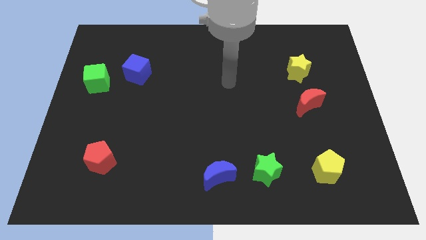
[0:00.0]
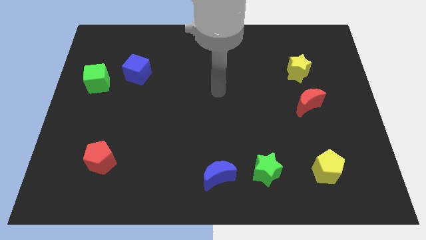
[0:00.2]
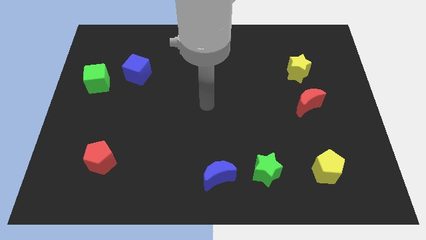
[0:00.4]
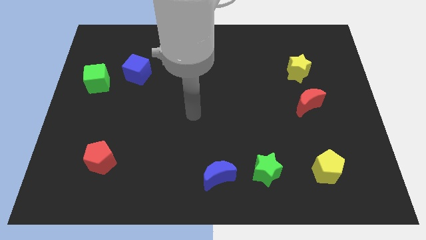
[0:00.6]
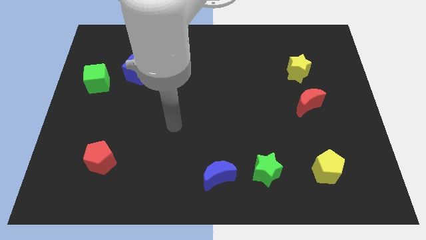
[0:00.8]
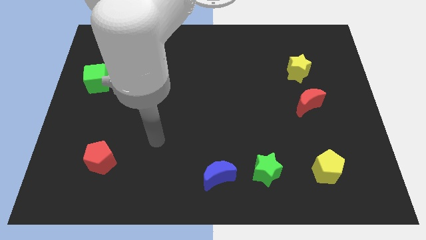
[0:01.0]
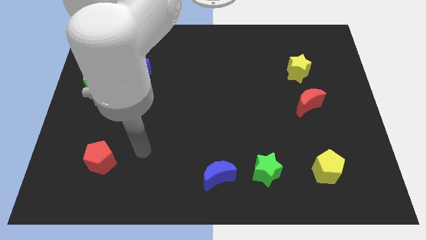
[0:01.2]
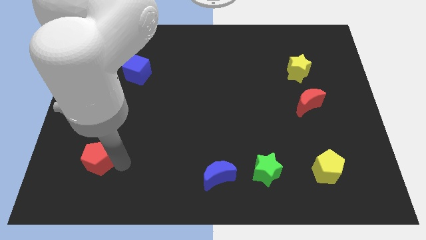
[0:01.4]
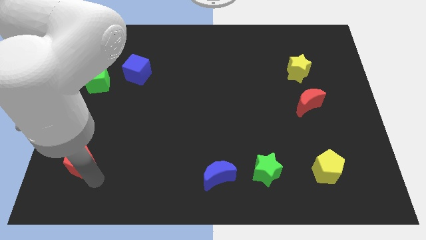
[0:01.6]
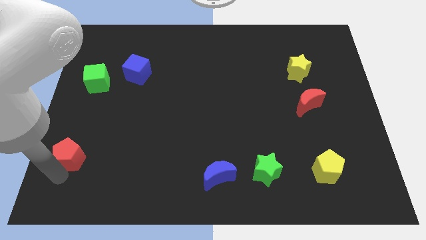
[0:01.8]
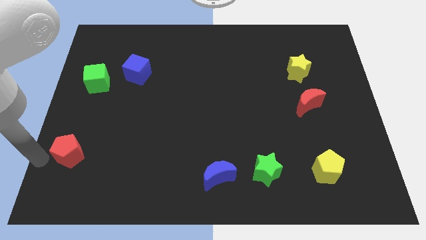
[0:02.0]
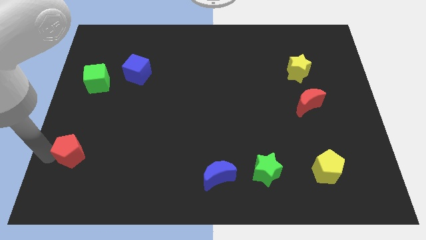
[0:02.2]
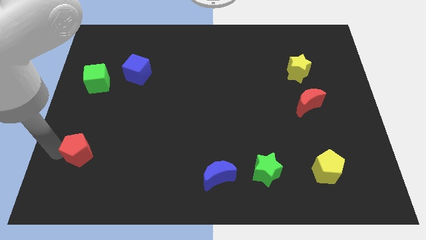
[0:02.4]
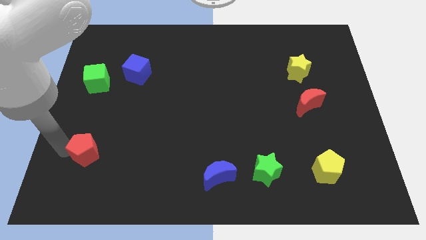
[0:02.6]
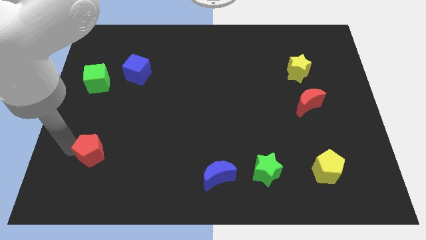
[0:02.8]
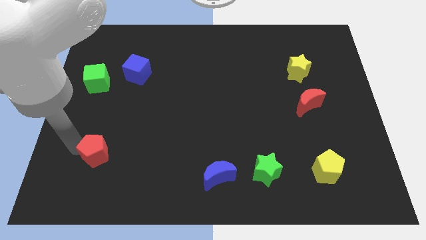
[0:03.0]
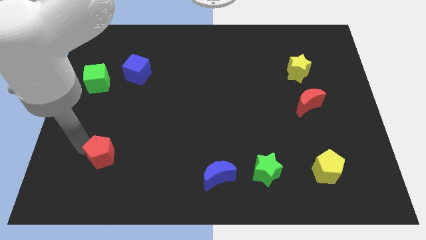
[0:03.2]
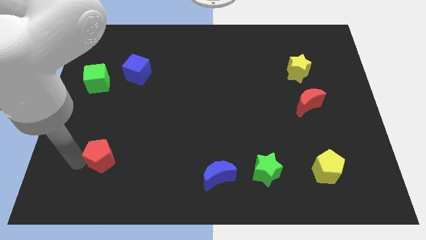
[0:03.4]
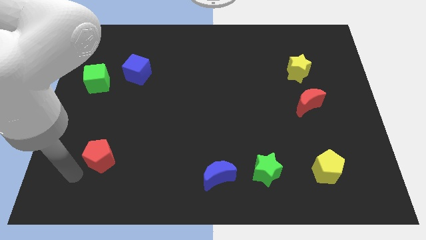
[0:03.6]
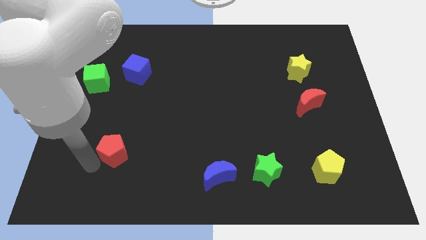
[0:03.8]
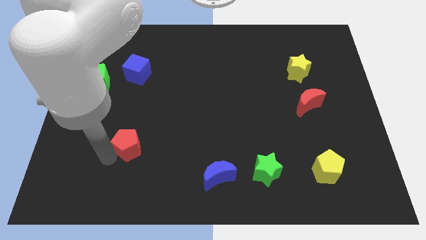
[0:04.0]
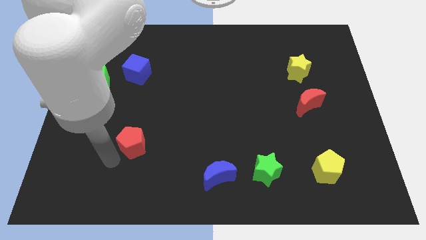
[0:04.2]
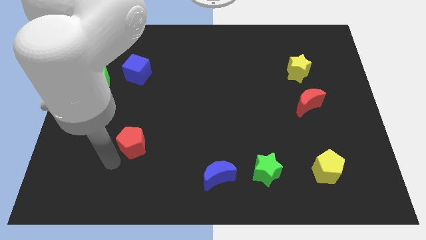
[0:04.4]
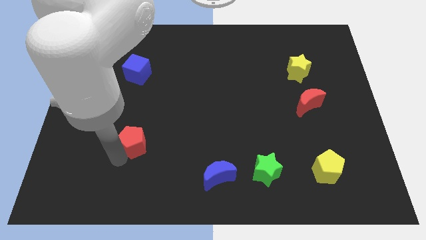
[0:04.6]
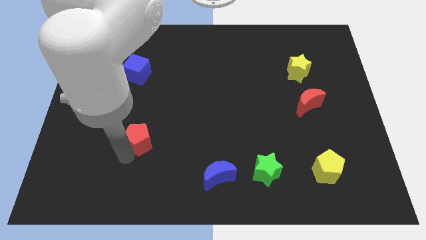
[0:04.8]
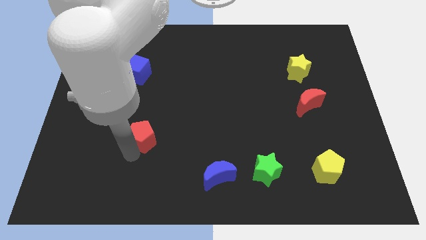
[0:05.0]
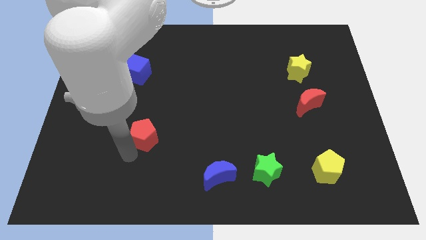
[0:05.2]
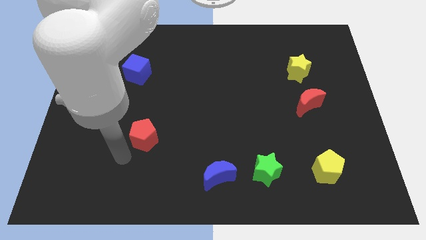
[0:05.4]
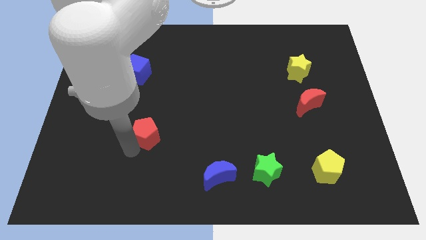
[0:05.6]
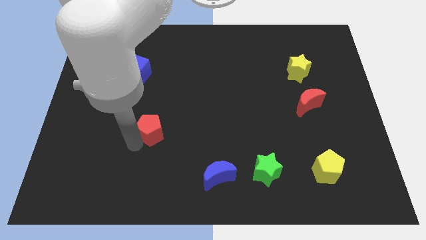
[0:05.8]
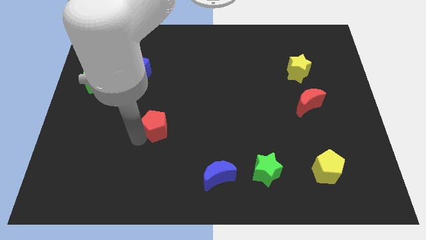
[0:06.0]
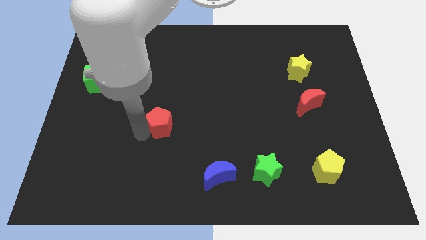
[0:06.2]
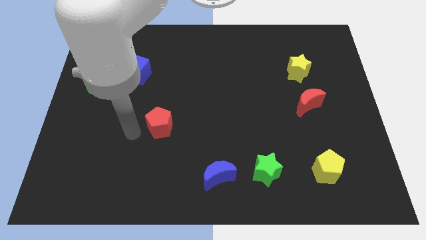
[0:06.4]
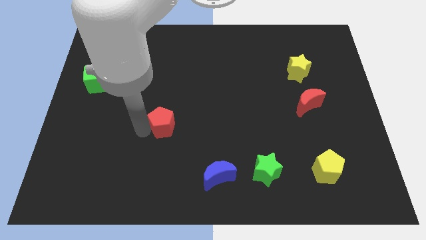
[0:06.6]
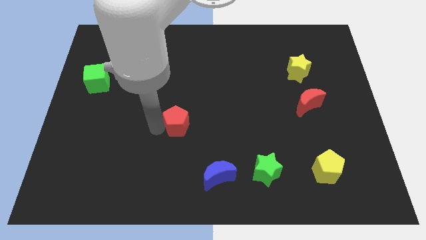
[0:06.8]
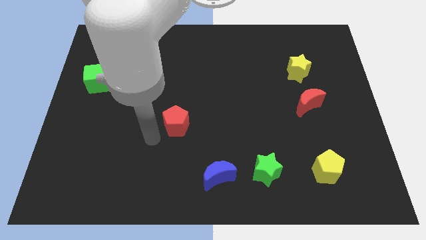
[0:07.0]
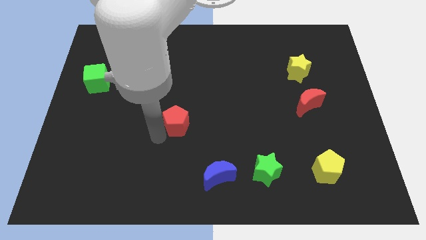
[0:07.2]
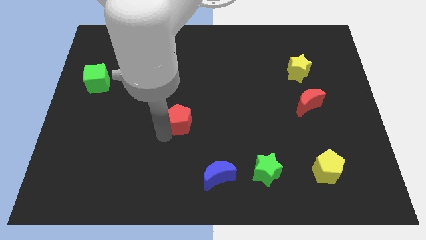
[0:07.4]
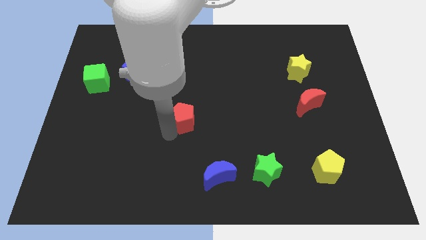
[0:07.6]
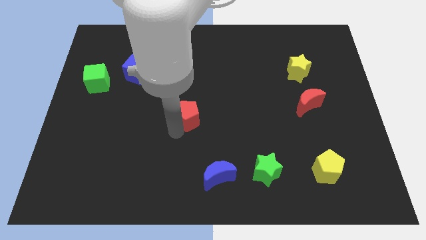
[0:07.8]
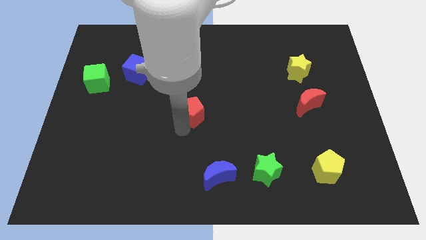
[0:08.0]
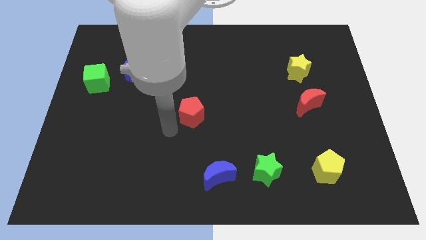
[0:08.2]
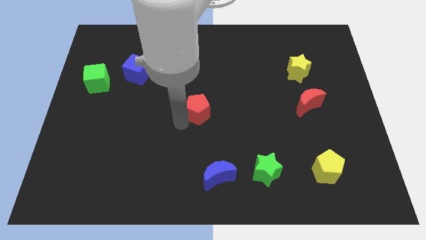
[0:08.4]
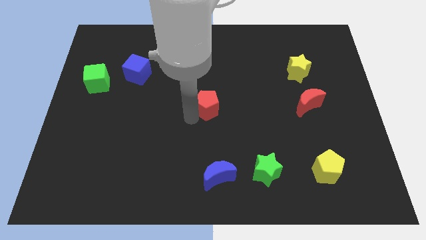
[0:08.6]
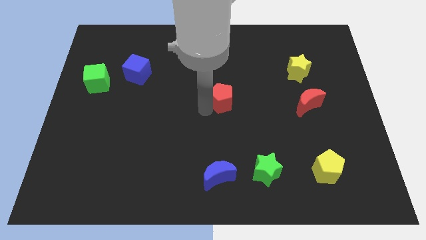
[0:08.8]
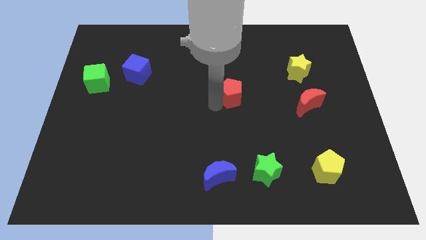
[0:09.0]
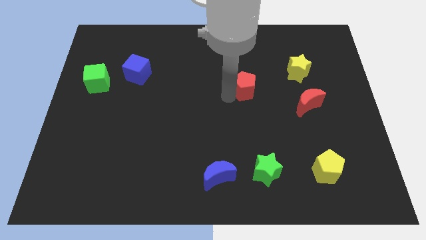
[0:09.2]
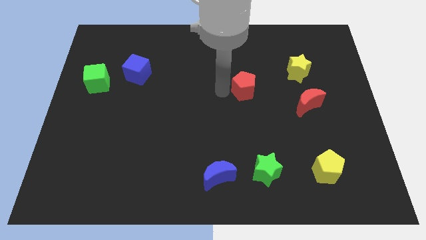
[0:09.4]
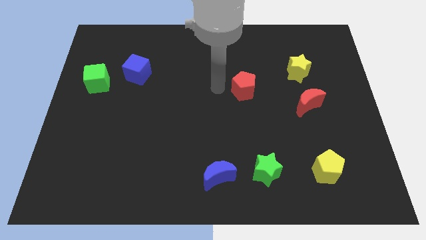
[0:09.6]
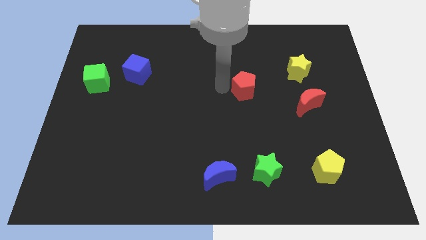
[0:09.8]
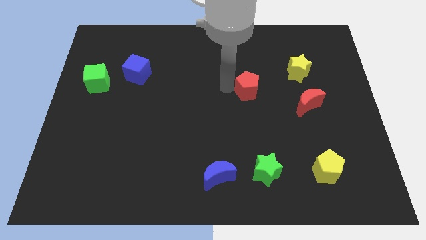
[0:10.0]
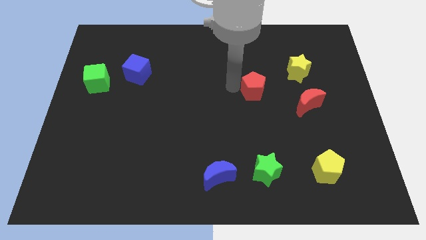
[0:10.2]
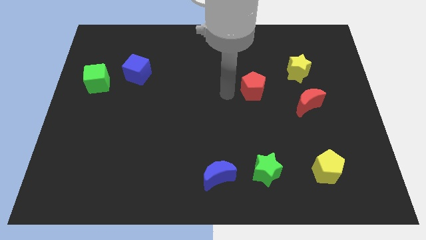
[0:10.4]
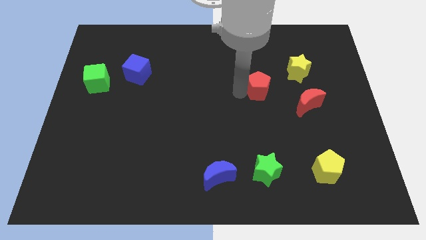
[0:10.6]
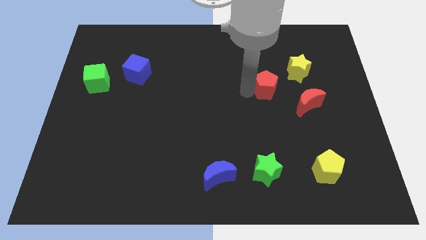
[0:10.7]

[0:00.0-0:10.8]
slide the red pentagon diagonally down and to the left of the yellow star

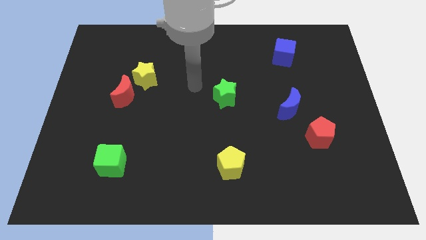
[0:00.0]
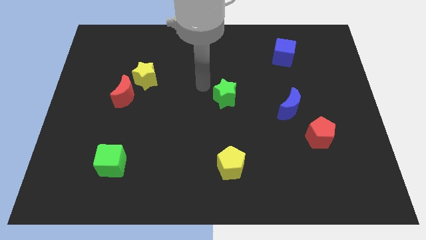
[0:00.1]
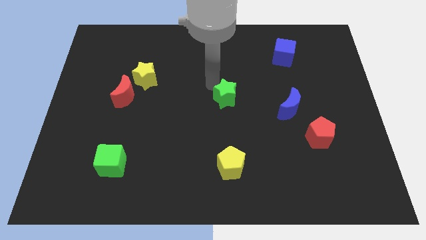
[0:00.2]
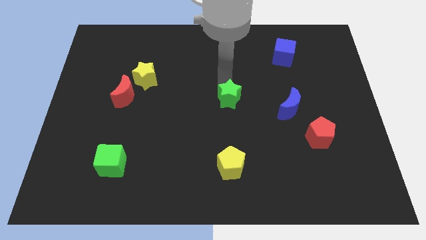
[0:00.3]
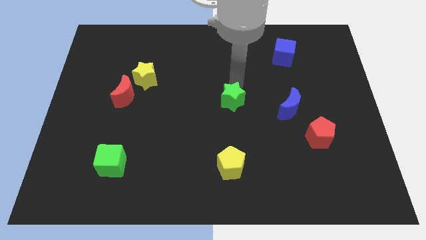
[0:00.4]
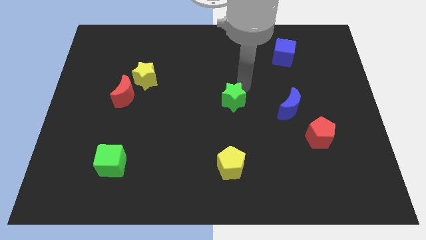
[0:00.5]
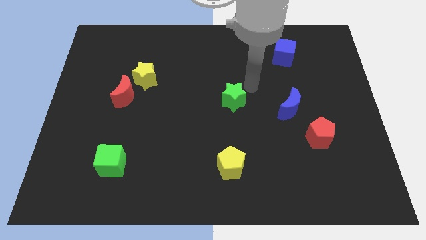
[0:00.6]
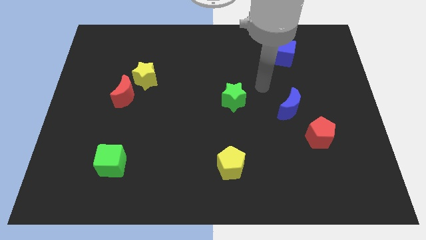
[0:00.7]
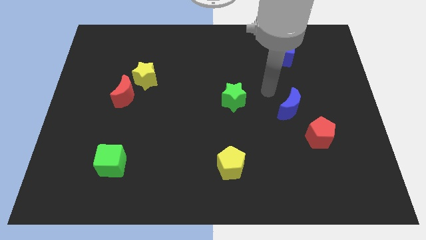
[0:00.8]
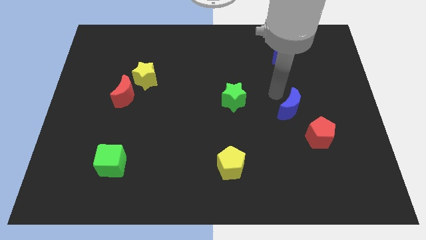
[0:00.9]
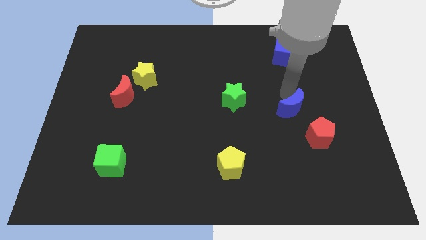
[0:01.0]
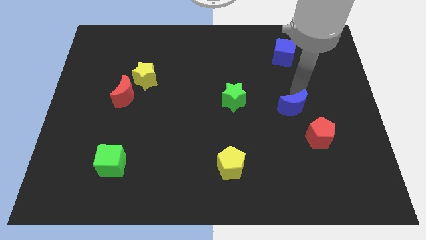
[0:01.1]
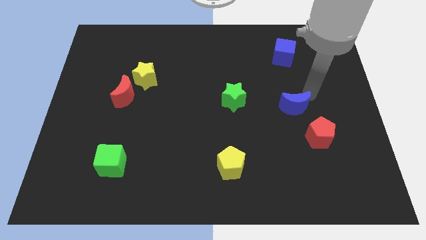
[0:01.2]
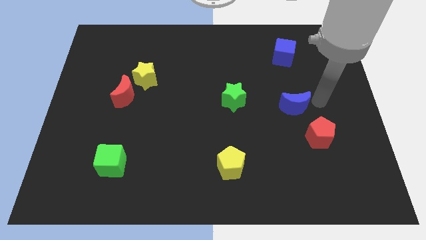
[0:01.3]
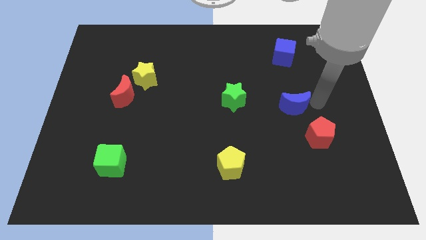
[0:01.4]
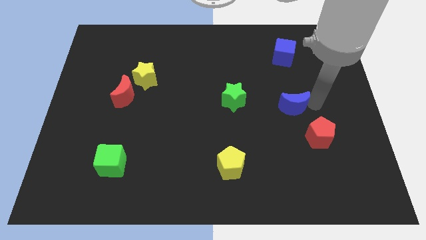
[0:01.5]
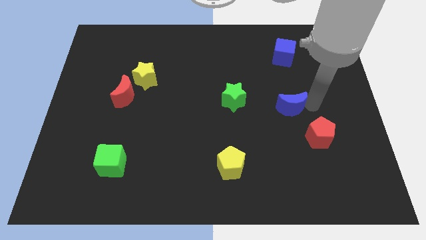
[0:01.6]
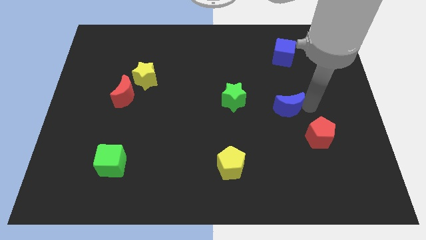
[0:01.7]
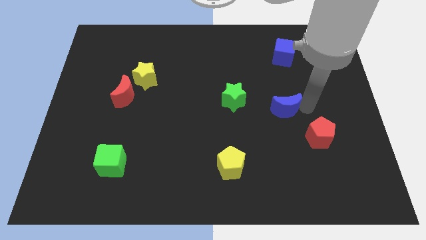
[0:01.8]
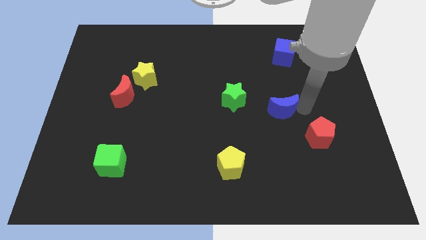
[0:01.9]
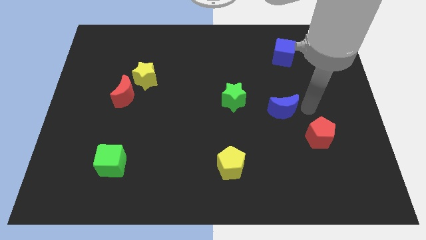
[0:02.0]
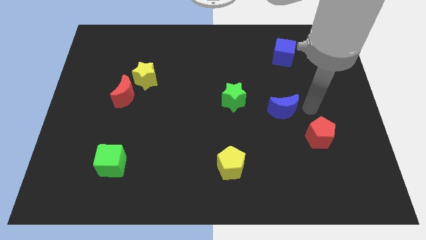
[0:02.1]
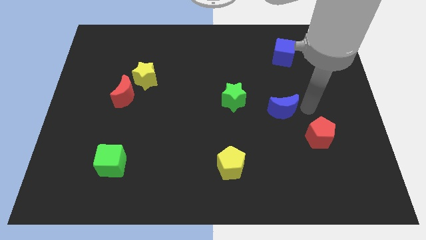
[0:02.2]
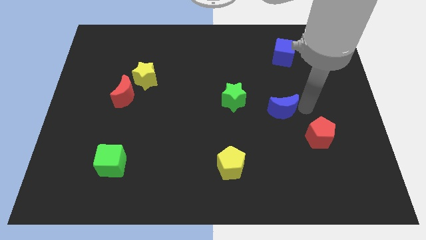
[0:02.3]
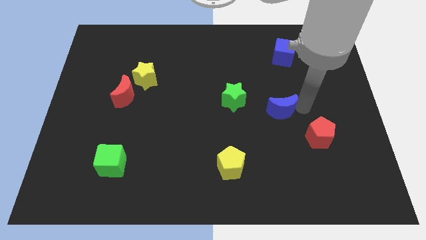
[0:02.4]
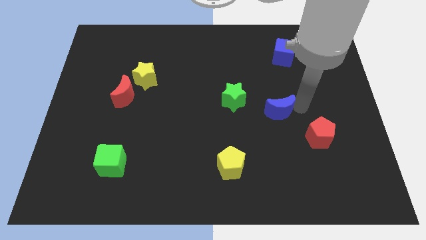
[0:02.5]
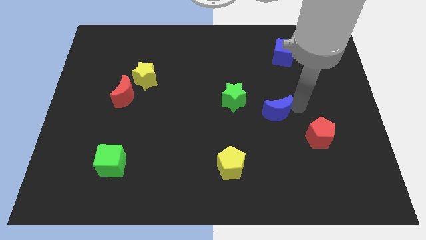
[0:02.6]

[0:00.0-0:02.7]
put the blue moon diagonally down and to the right of the green star
